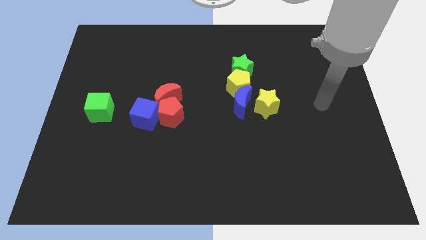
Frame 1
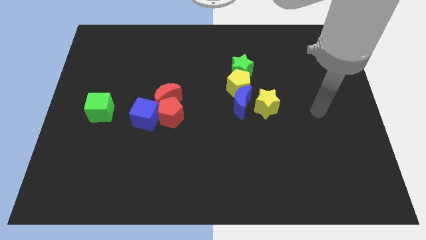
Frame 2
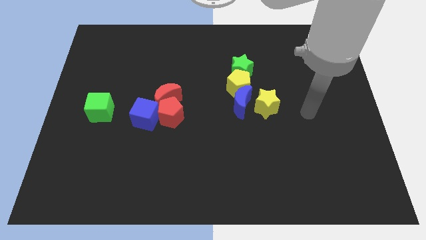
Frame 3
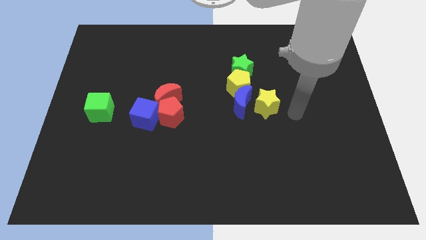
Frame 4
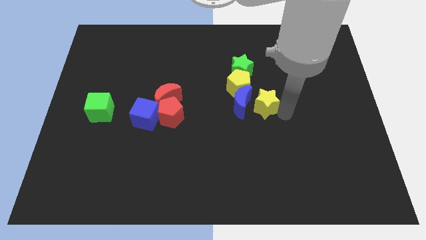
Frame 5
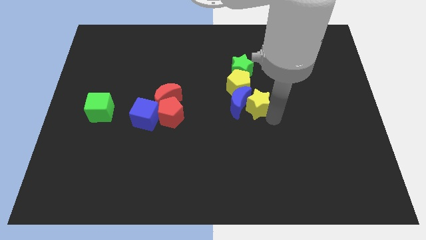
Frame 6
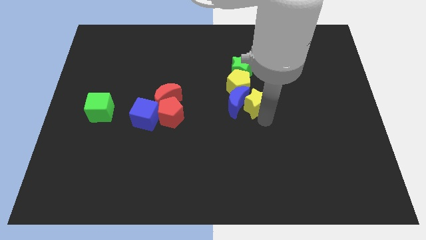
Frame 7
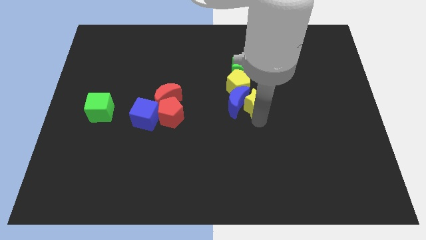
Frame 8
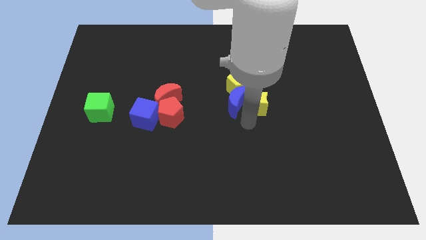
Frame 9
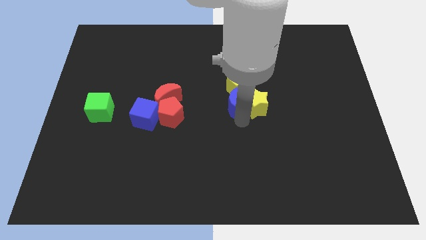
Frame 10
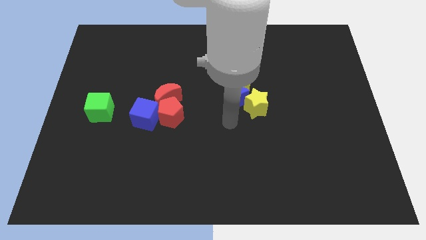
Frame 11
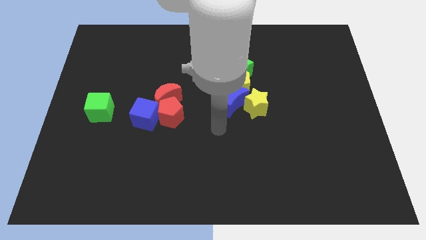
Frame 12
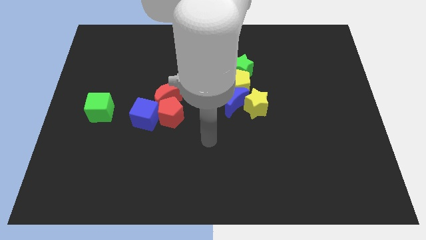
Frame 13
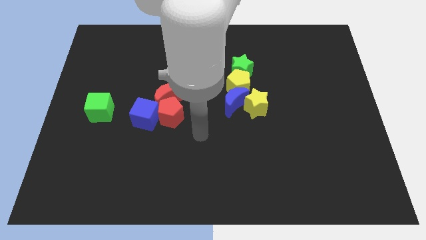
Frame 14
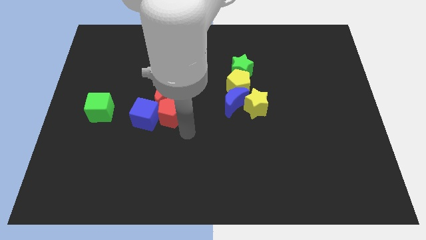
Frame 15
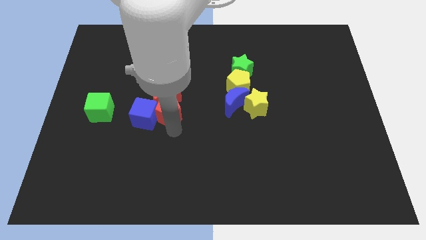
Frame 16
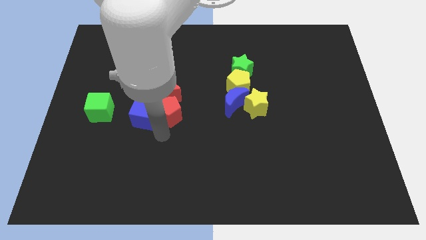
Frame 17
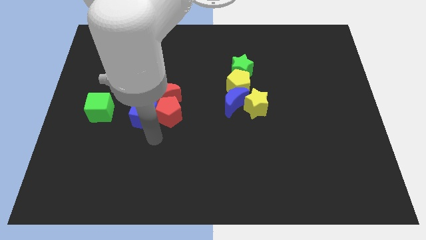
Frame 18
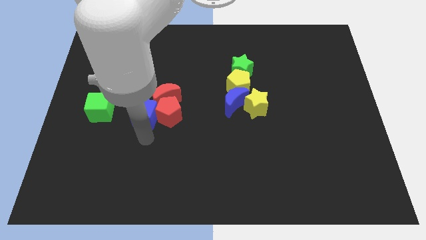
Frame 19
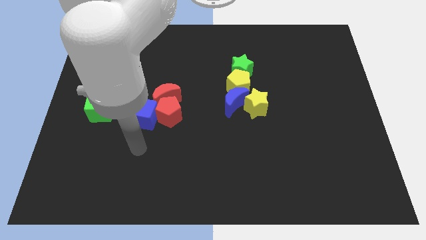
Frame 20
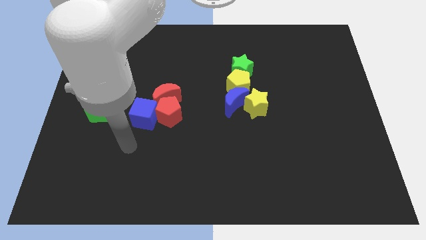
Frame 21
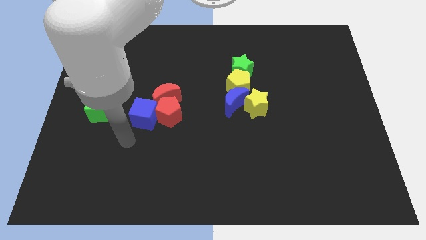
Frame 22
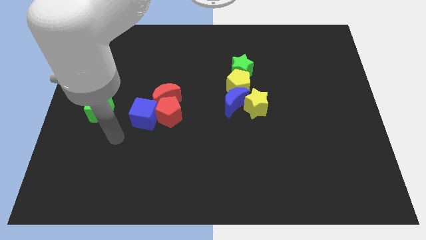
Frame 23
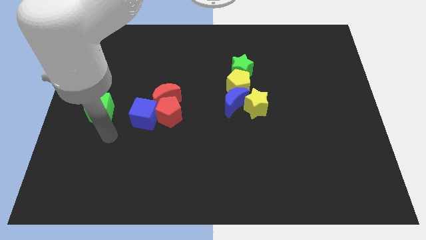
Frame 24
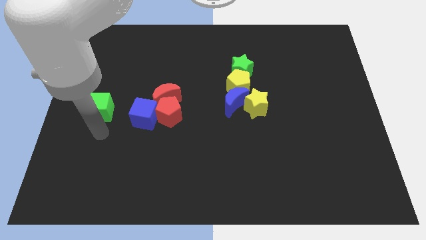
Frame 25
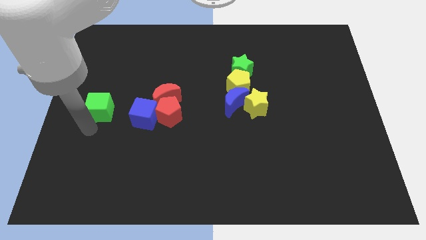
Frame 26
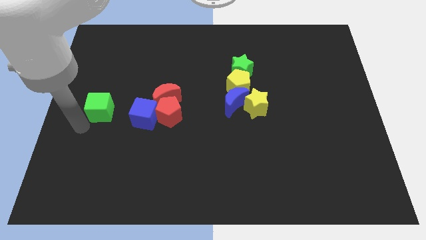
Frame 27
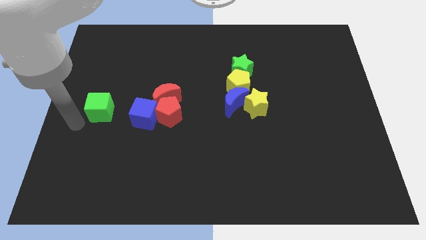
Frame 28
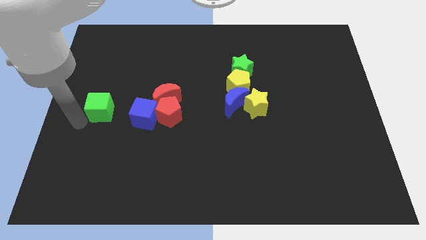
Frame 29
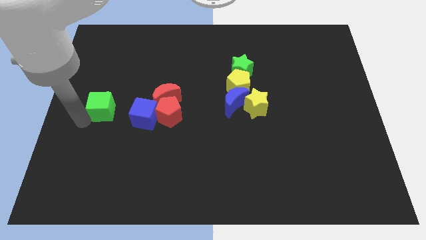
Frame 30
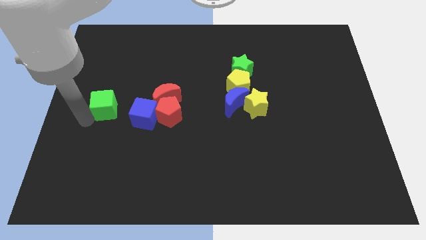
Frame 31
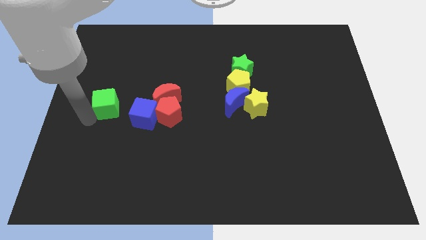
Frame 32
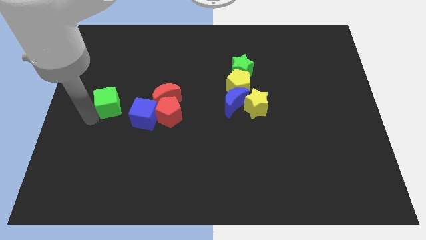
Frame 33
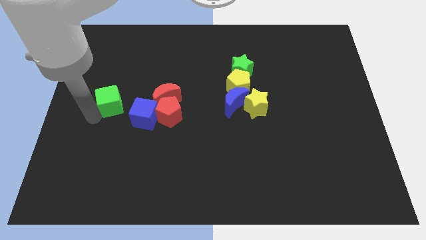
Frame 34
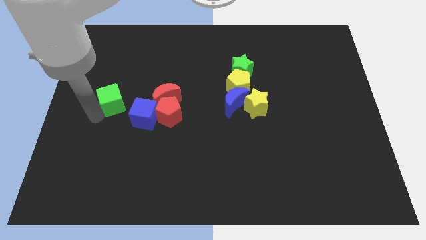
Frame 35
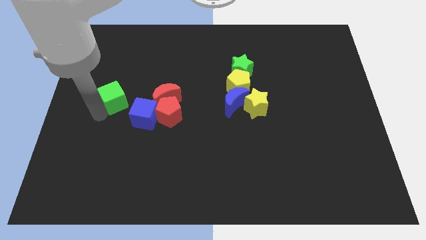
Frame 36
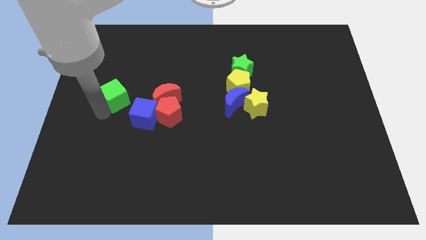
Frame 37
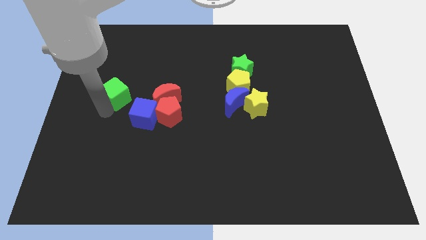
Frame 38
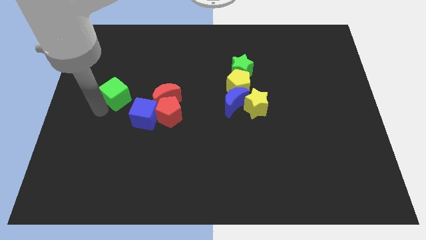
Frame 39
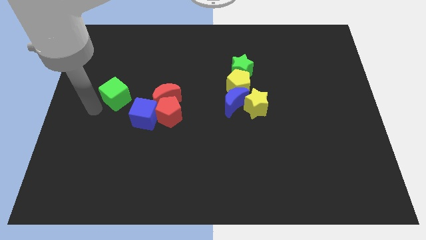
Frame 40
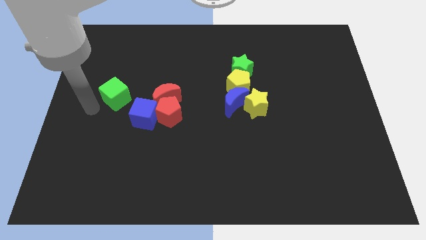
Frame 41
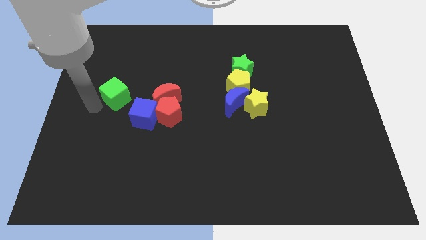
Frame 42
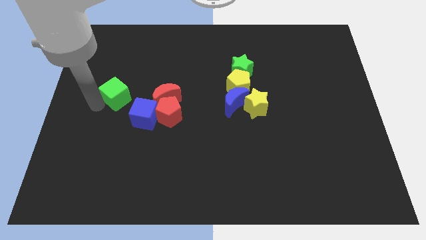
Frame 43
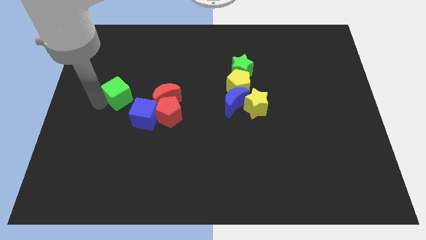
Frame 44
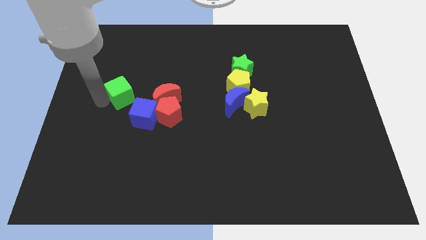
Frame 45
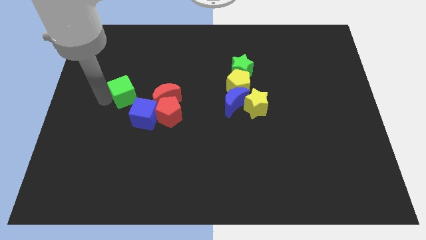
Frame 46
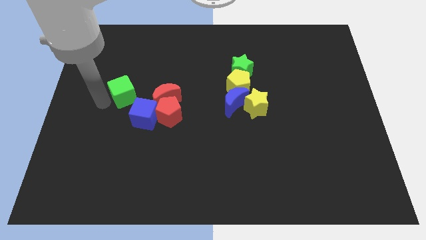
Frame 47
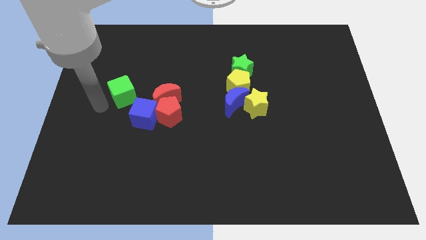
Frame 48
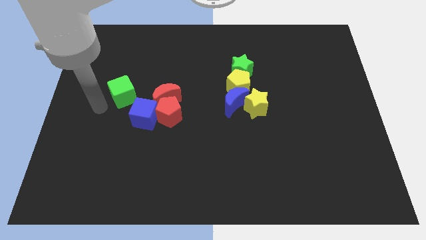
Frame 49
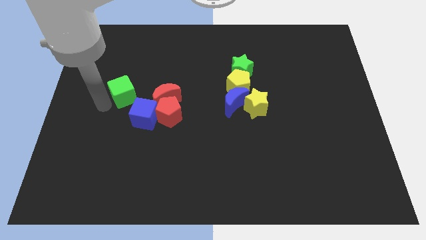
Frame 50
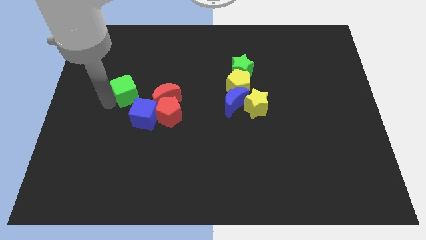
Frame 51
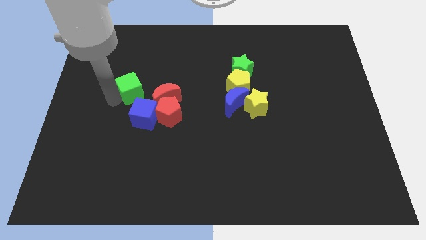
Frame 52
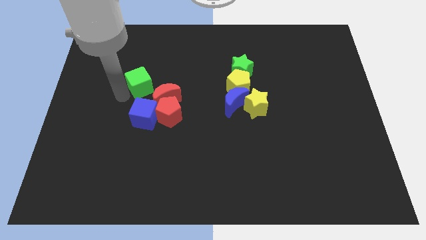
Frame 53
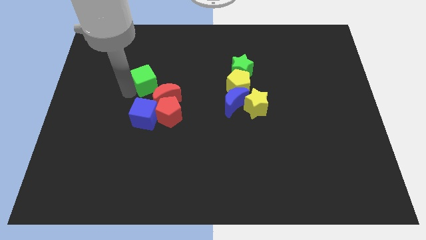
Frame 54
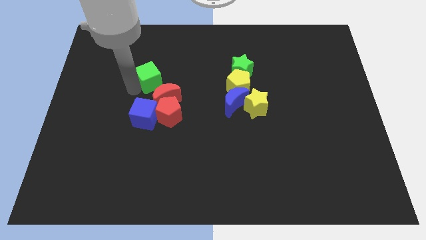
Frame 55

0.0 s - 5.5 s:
put the green cube to the top side of the red moon

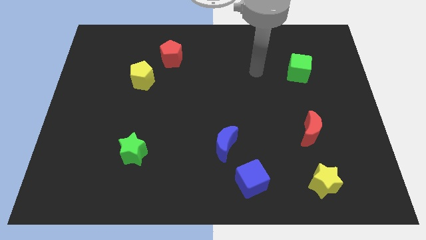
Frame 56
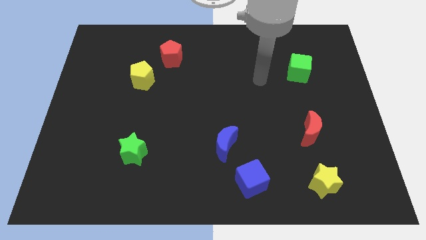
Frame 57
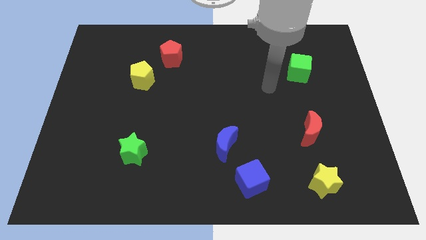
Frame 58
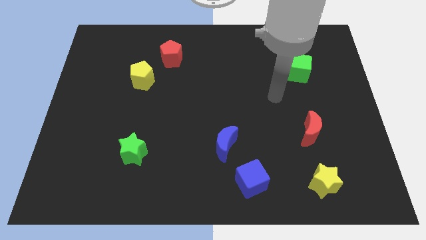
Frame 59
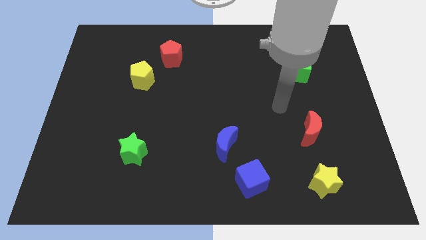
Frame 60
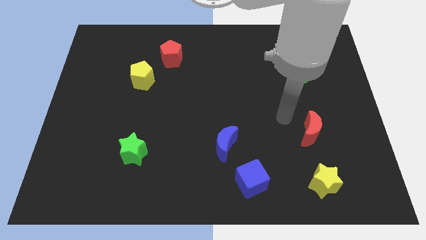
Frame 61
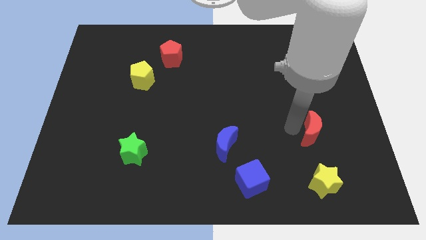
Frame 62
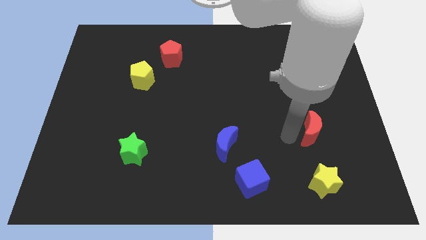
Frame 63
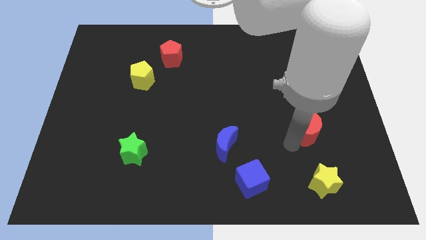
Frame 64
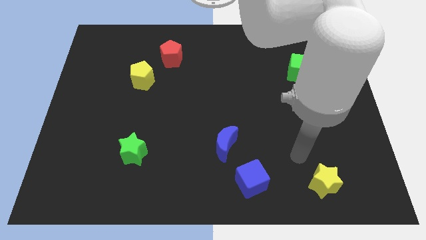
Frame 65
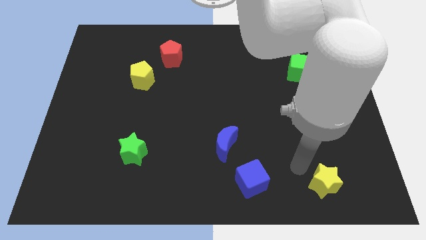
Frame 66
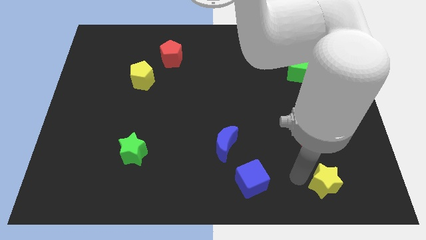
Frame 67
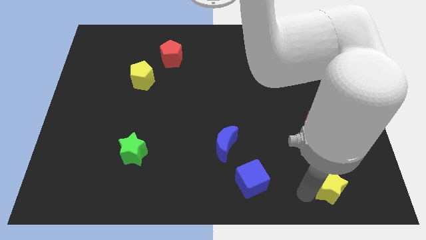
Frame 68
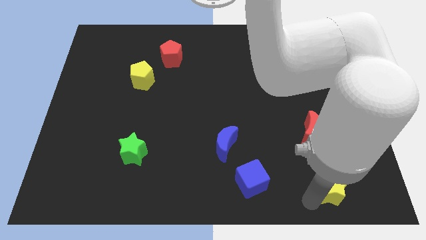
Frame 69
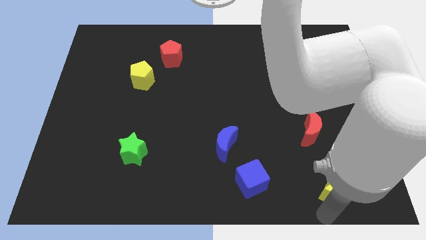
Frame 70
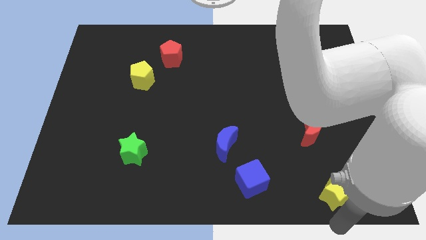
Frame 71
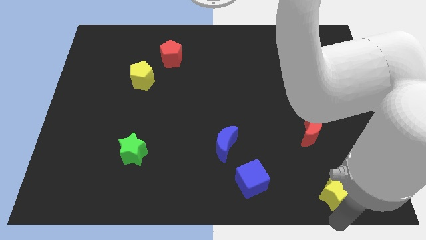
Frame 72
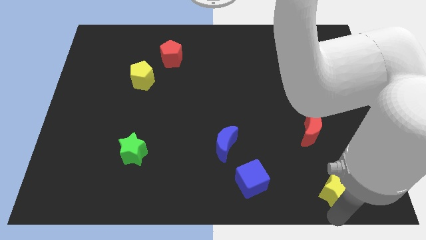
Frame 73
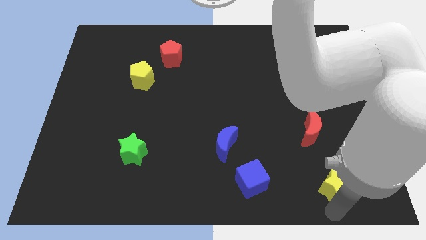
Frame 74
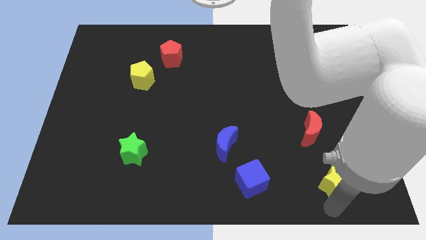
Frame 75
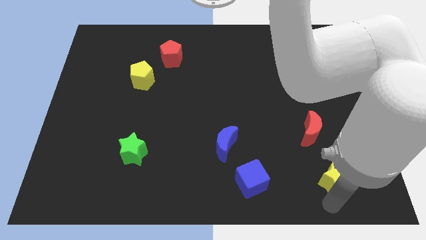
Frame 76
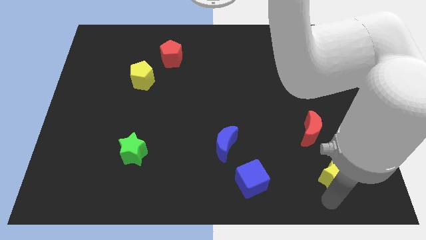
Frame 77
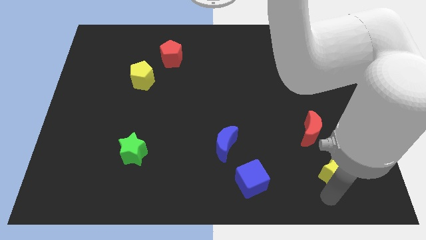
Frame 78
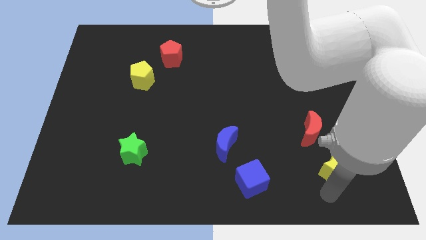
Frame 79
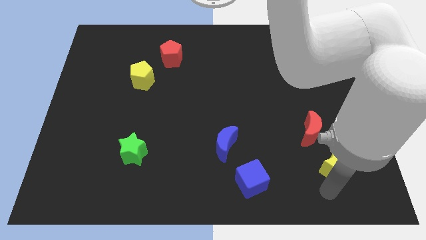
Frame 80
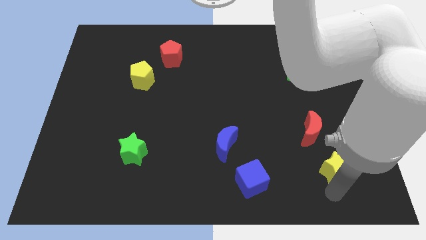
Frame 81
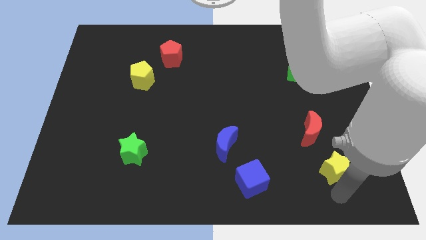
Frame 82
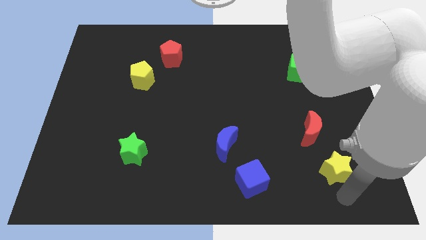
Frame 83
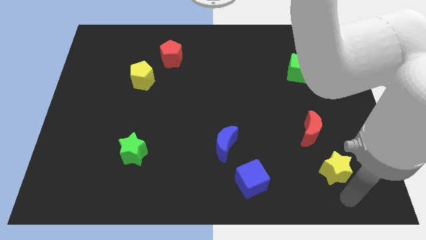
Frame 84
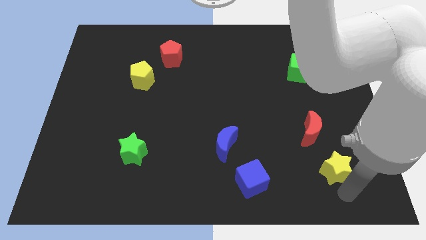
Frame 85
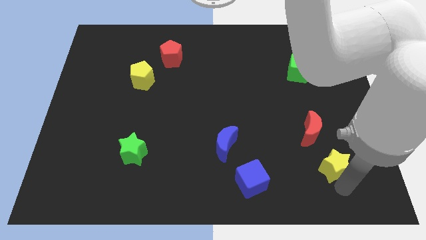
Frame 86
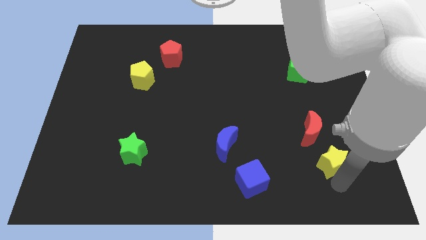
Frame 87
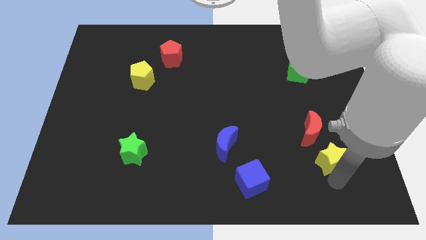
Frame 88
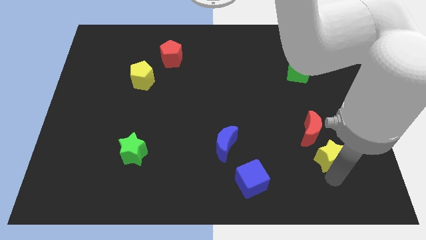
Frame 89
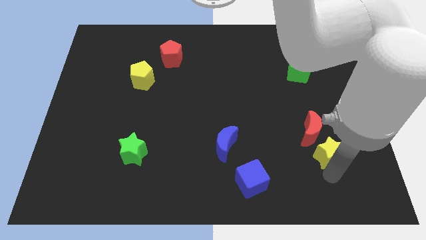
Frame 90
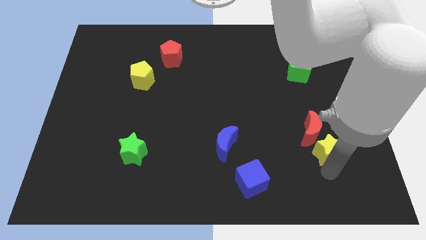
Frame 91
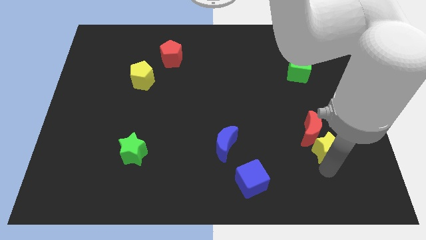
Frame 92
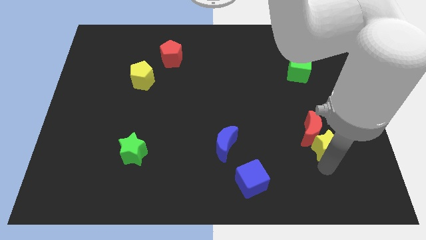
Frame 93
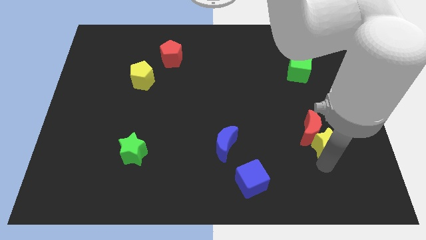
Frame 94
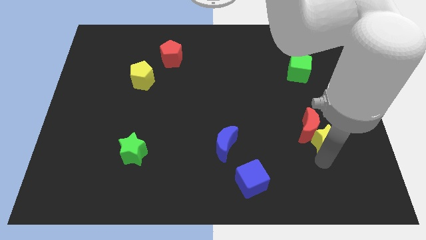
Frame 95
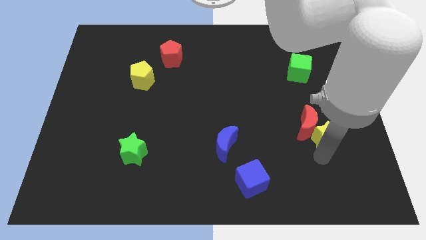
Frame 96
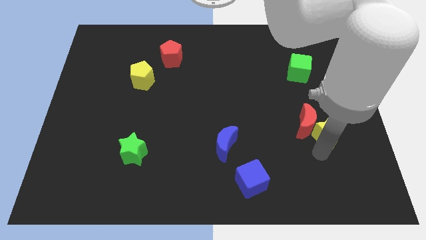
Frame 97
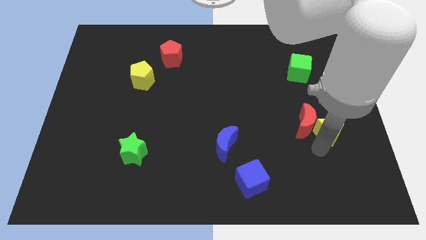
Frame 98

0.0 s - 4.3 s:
slide the yellow star diagonally up and to the right of the red moon
